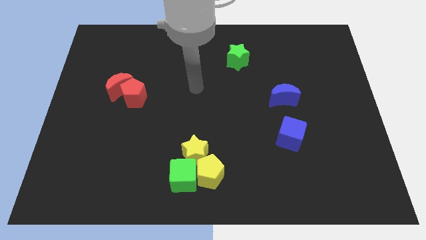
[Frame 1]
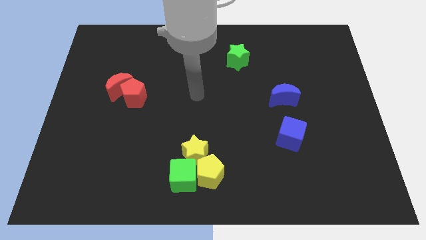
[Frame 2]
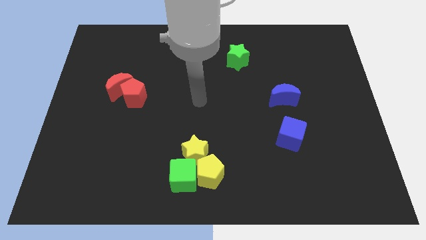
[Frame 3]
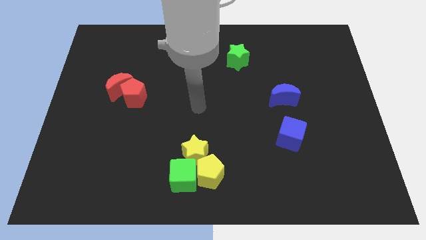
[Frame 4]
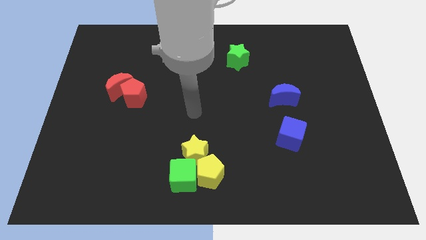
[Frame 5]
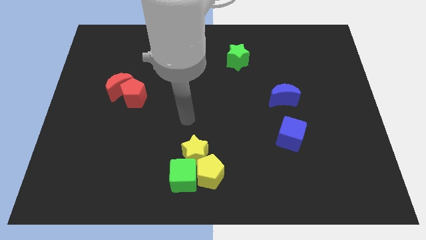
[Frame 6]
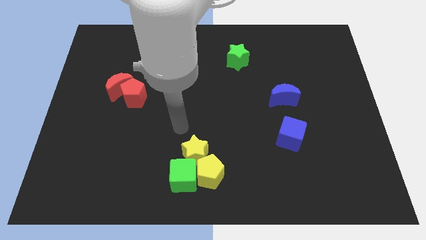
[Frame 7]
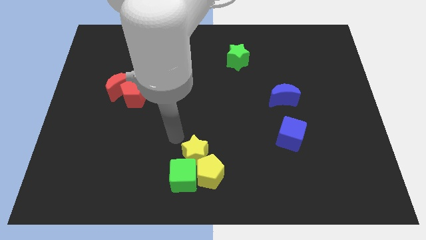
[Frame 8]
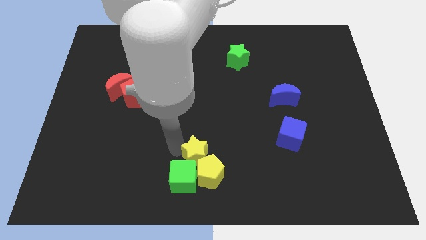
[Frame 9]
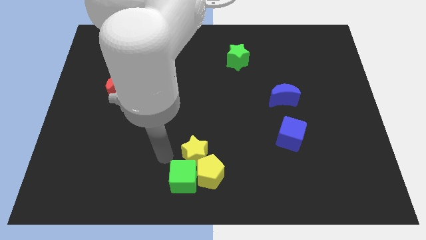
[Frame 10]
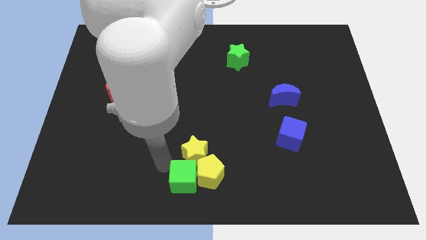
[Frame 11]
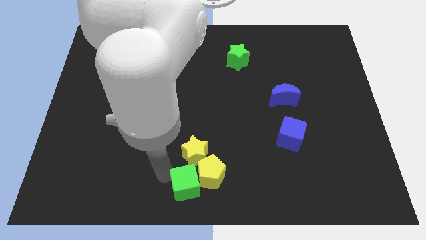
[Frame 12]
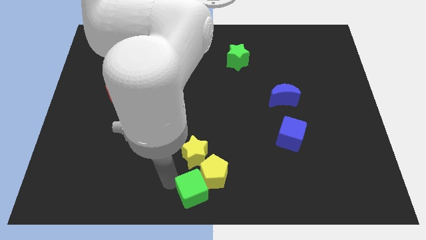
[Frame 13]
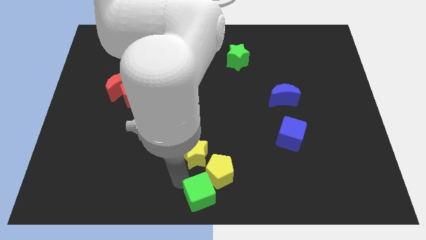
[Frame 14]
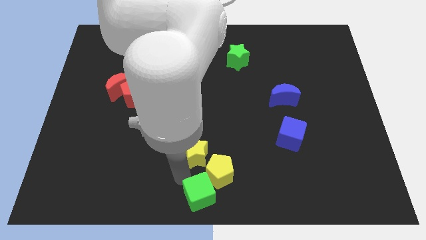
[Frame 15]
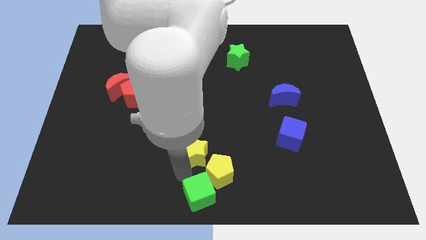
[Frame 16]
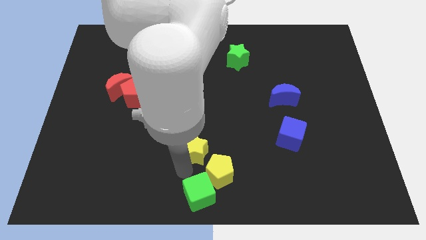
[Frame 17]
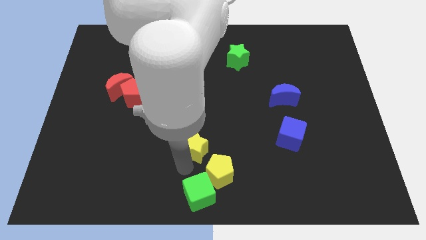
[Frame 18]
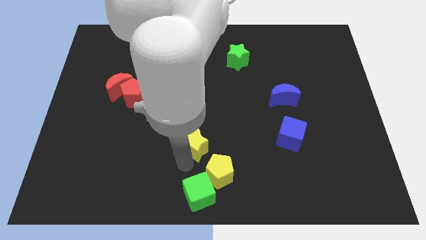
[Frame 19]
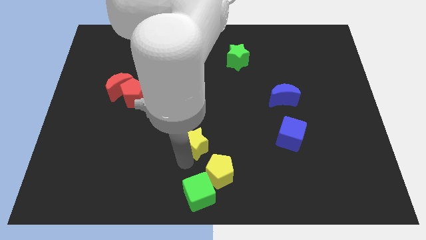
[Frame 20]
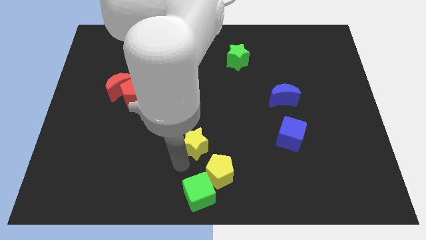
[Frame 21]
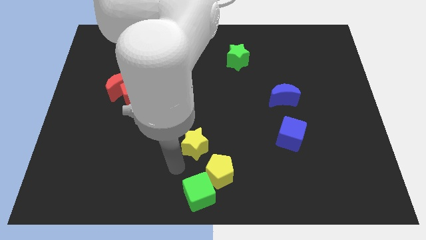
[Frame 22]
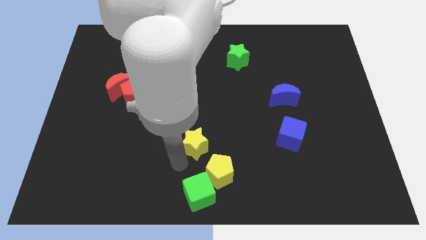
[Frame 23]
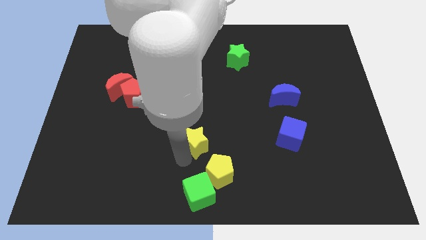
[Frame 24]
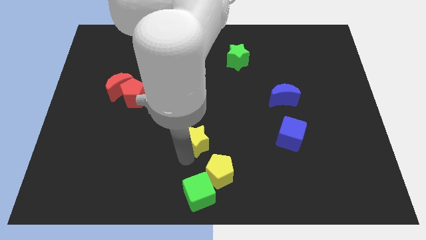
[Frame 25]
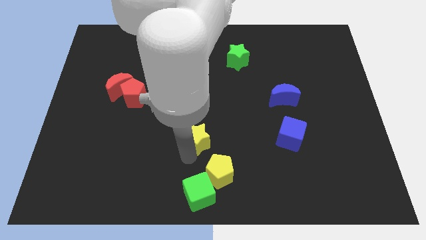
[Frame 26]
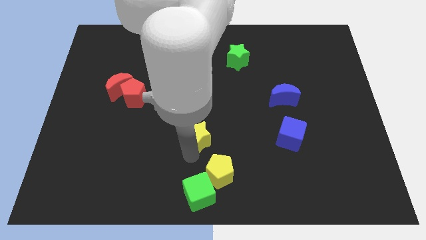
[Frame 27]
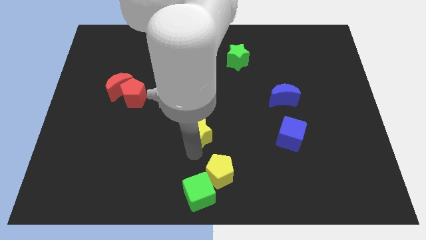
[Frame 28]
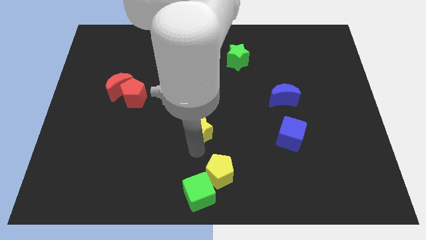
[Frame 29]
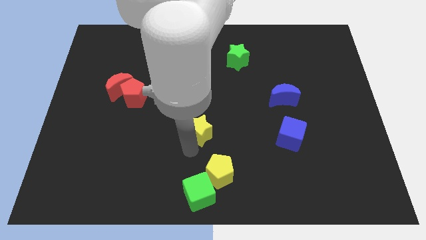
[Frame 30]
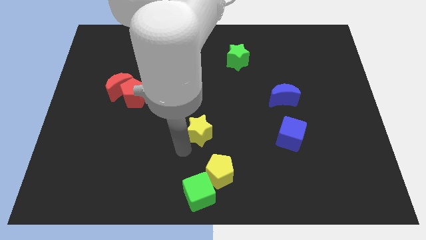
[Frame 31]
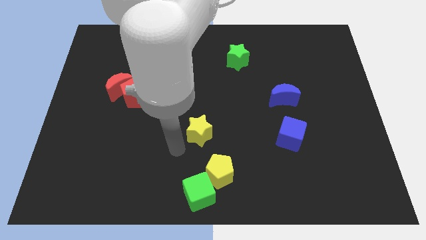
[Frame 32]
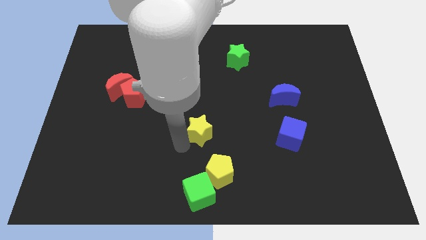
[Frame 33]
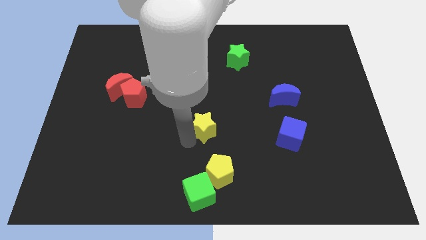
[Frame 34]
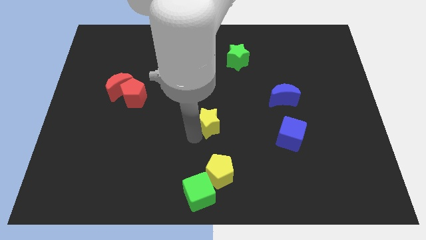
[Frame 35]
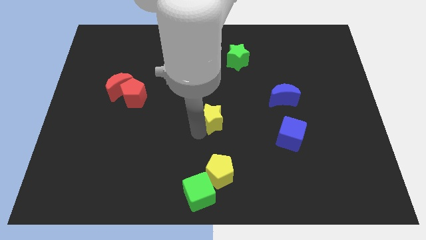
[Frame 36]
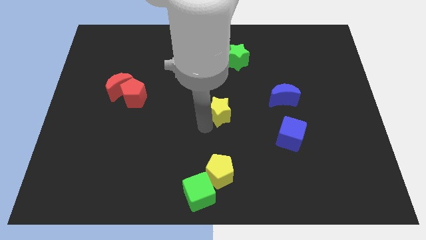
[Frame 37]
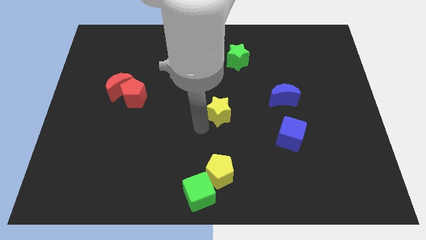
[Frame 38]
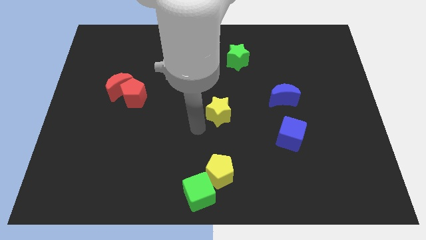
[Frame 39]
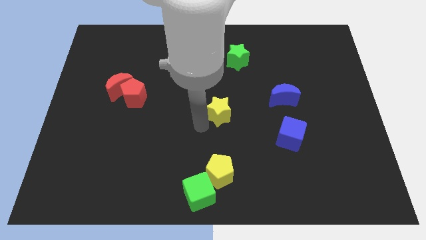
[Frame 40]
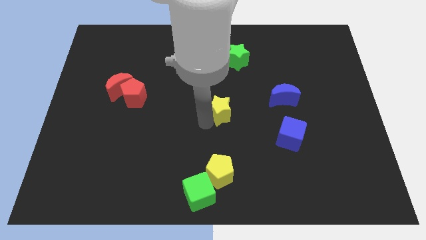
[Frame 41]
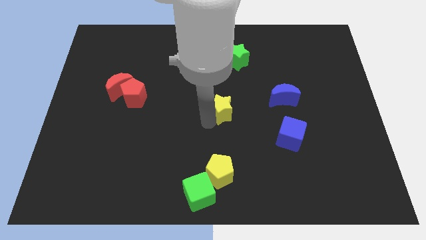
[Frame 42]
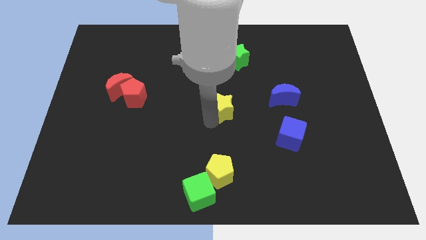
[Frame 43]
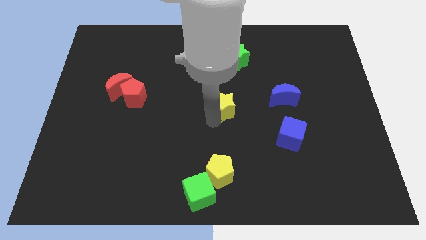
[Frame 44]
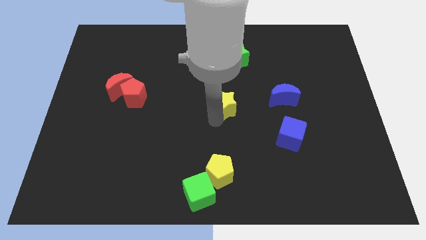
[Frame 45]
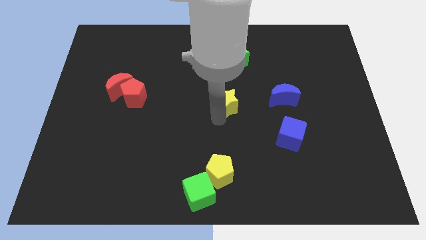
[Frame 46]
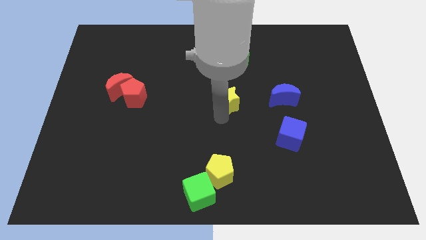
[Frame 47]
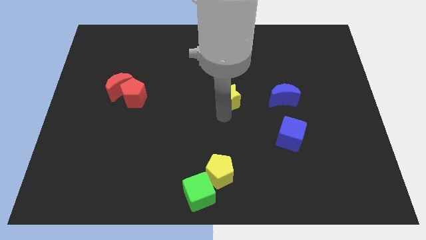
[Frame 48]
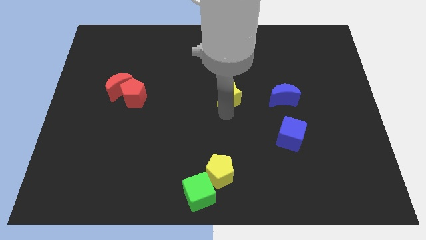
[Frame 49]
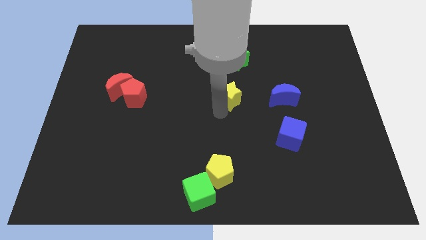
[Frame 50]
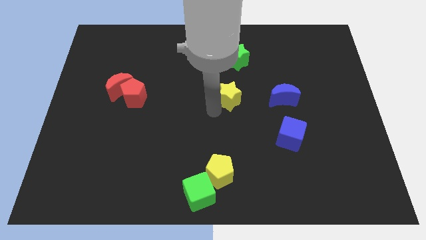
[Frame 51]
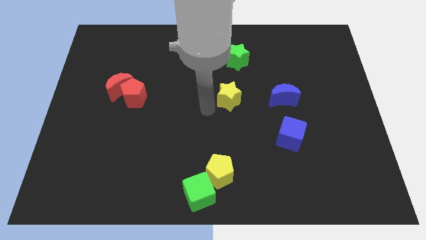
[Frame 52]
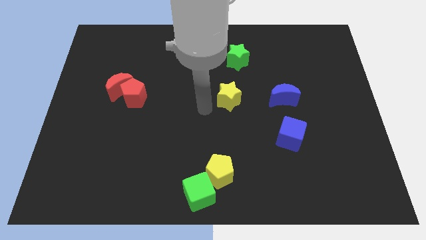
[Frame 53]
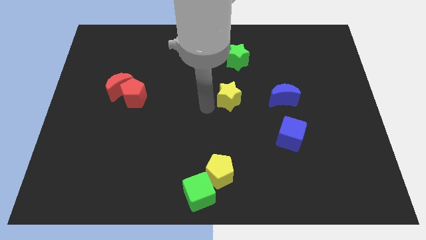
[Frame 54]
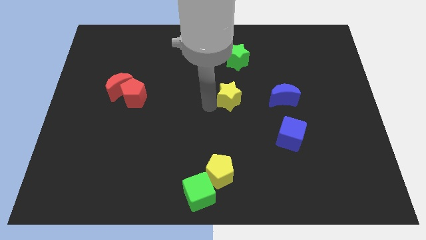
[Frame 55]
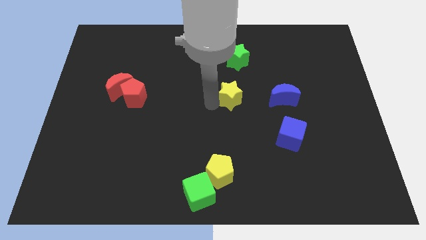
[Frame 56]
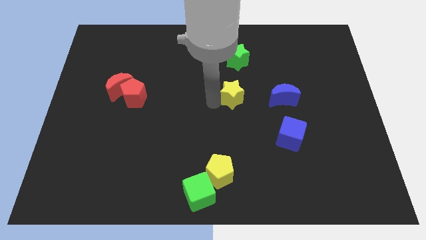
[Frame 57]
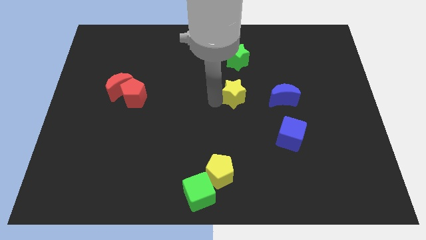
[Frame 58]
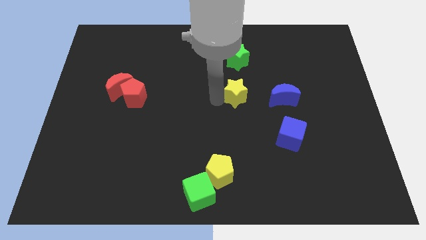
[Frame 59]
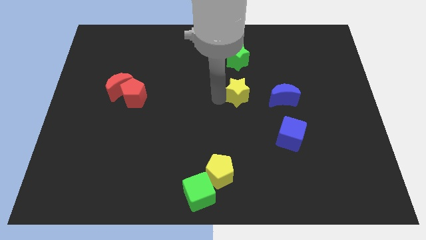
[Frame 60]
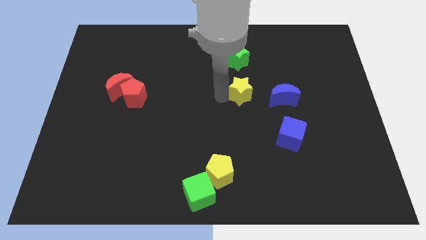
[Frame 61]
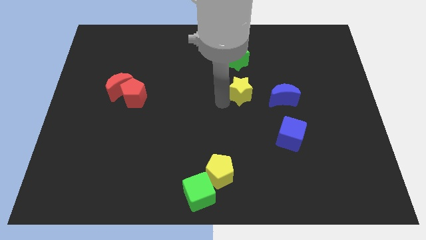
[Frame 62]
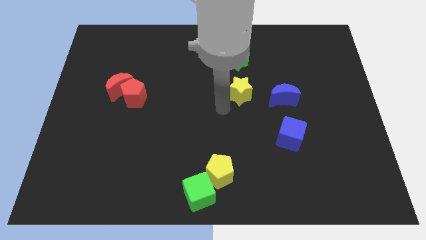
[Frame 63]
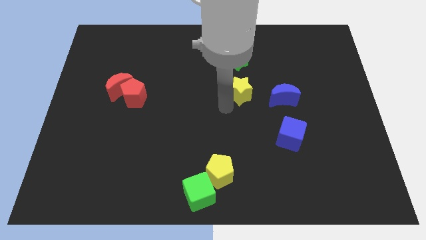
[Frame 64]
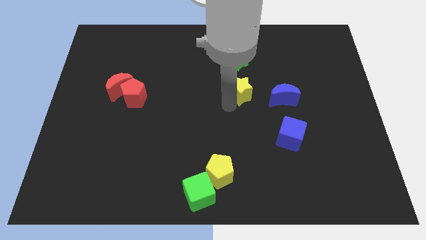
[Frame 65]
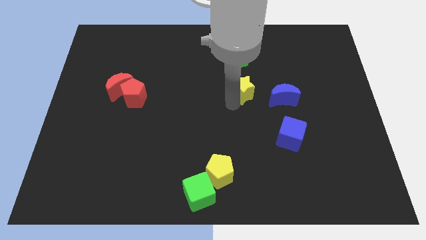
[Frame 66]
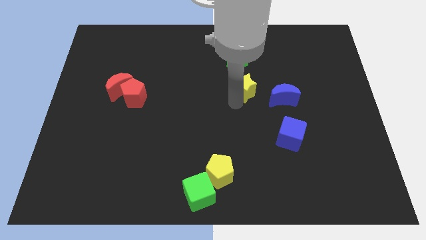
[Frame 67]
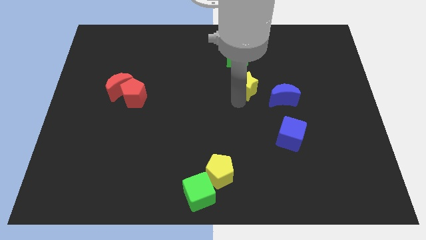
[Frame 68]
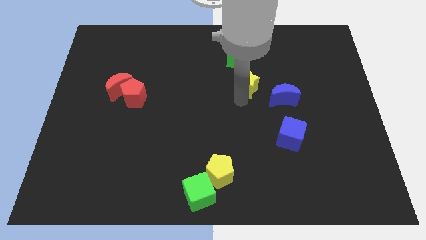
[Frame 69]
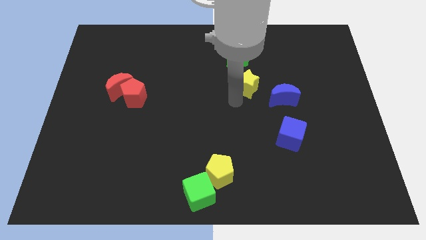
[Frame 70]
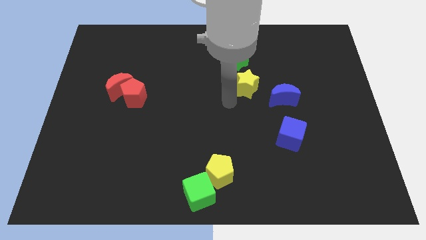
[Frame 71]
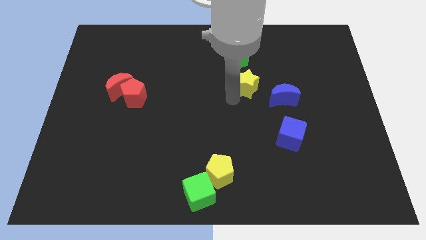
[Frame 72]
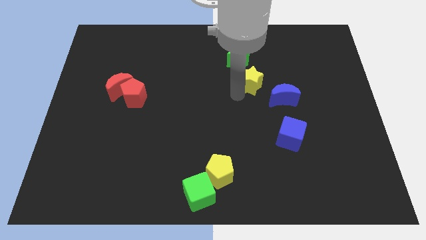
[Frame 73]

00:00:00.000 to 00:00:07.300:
push the yellow star diagonally down and to the right of the green star
